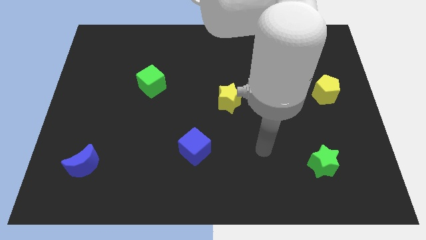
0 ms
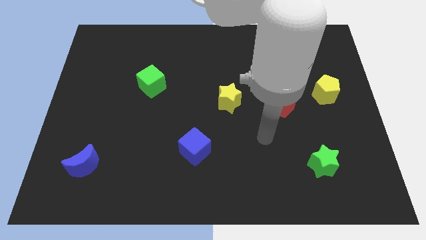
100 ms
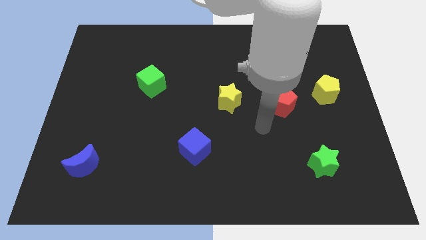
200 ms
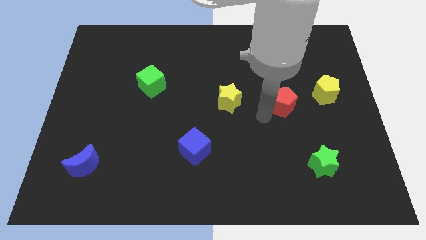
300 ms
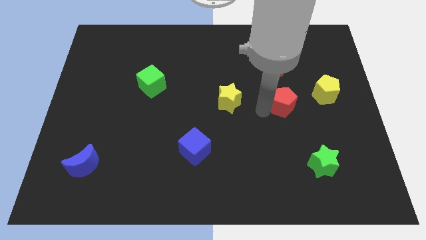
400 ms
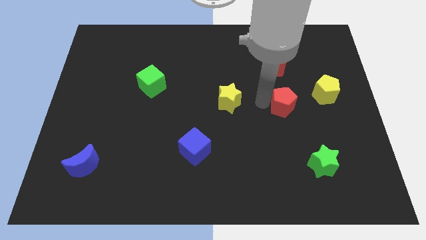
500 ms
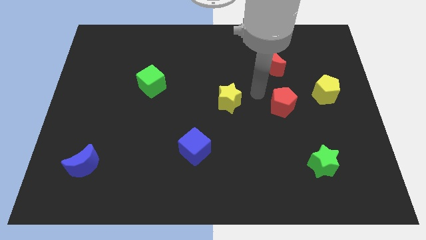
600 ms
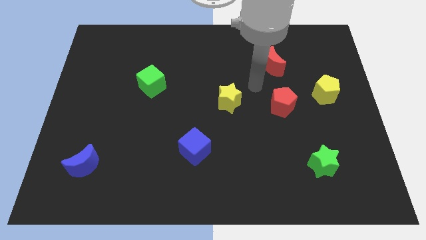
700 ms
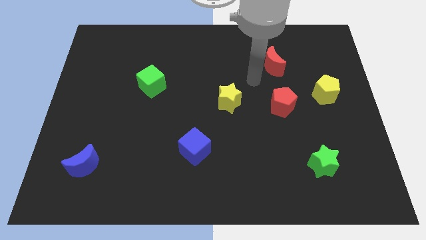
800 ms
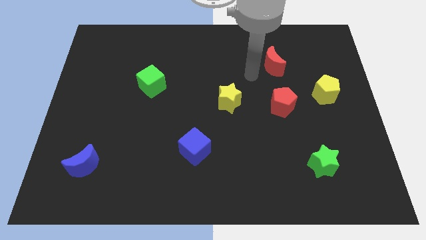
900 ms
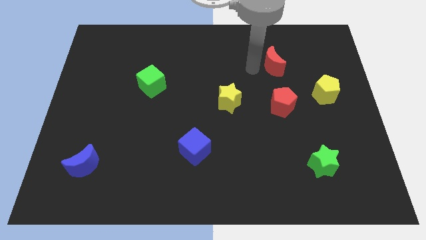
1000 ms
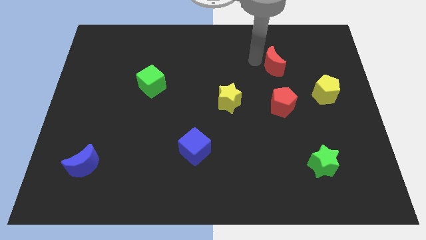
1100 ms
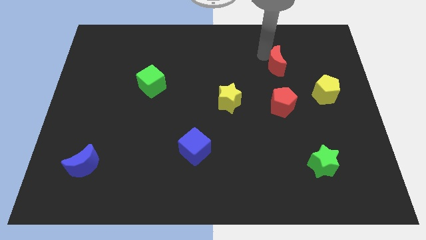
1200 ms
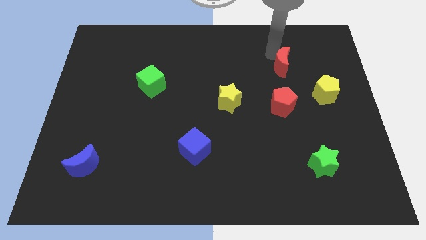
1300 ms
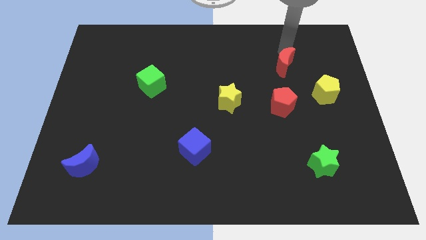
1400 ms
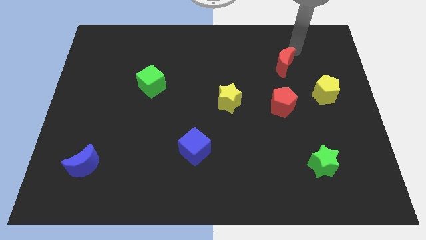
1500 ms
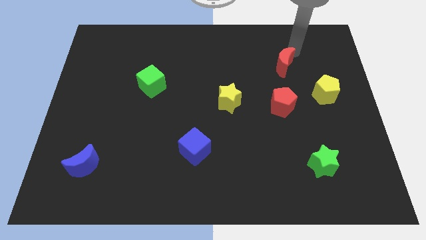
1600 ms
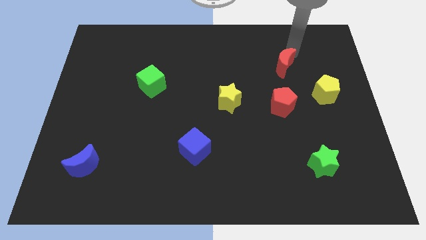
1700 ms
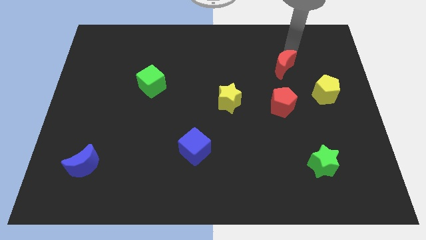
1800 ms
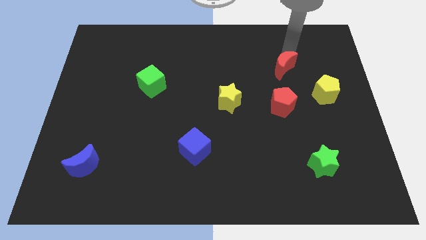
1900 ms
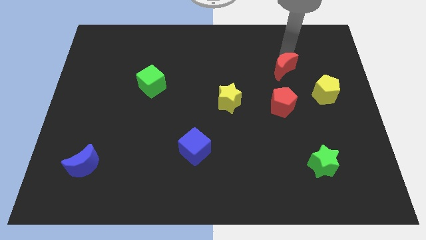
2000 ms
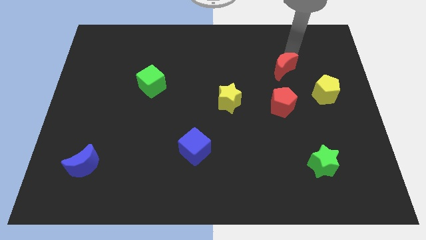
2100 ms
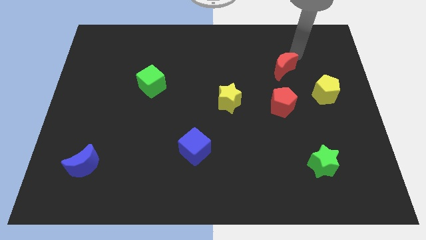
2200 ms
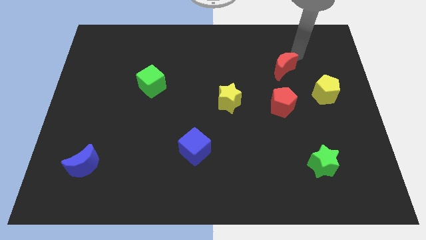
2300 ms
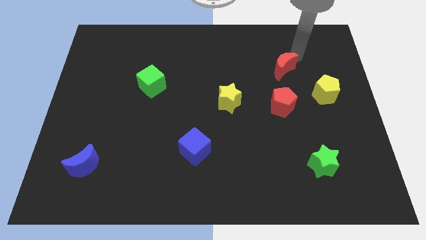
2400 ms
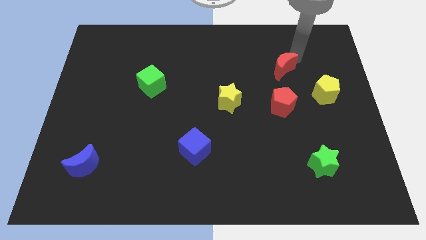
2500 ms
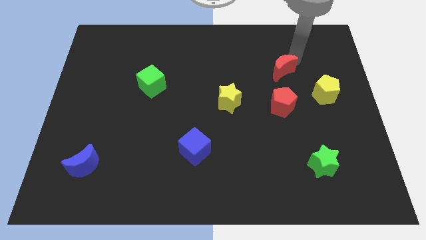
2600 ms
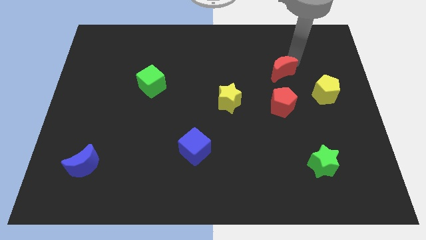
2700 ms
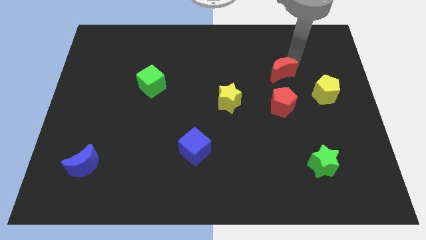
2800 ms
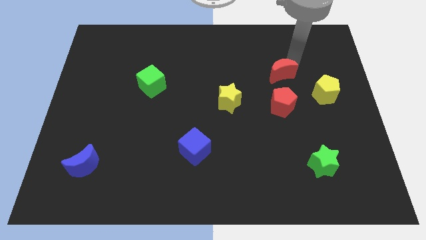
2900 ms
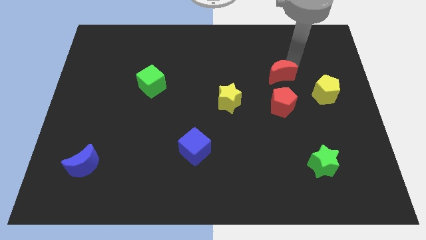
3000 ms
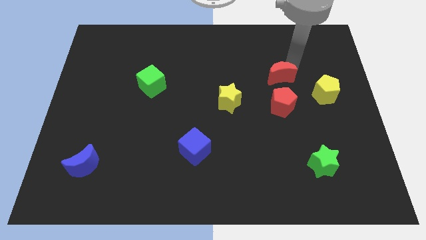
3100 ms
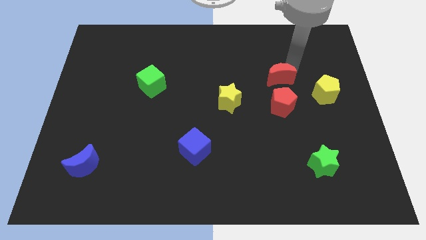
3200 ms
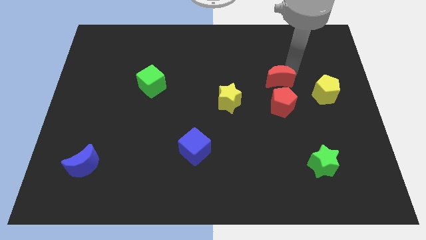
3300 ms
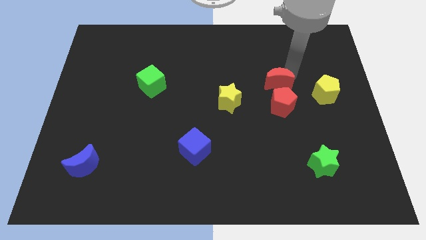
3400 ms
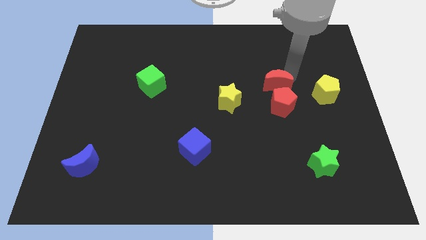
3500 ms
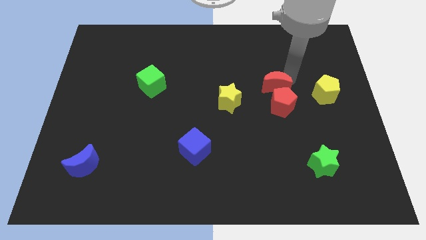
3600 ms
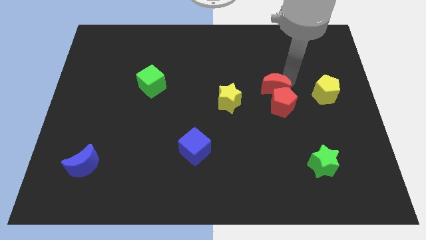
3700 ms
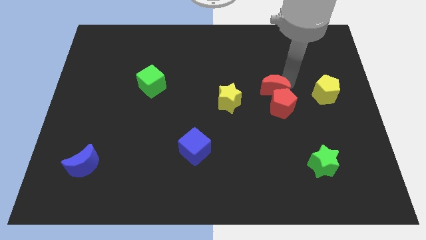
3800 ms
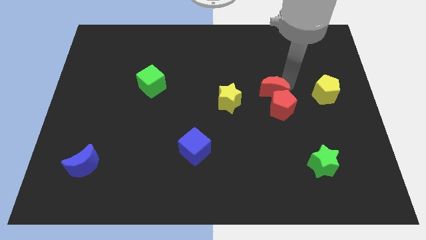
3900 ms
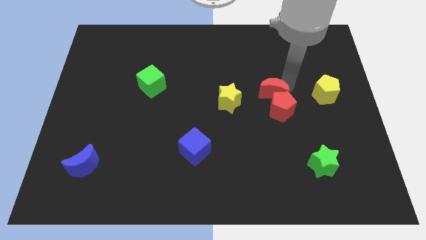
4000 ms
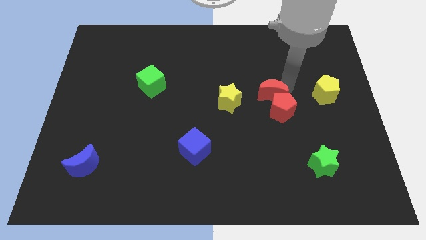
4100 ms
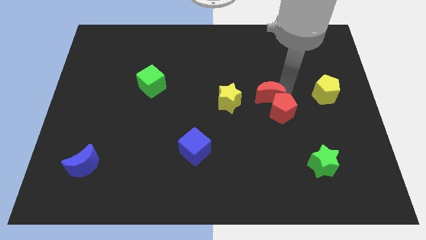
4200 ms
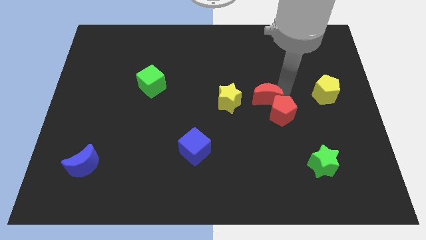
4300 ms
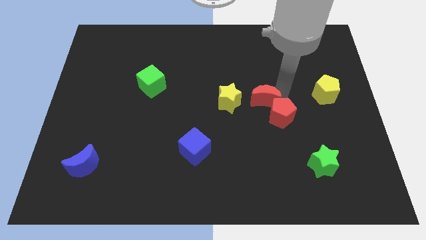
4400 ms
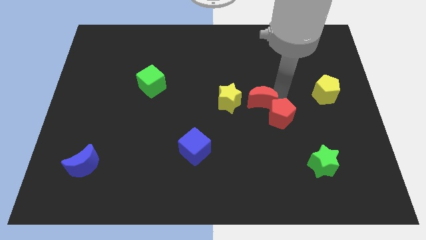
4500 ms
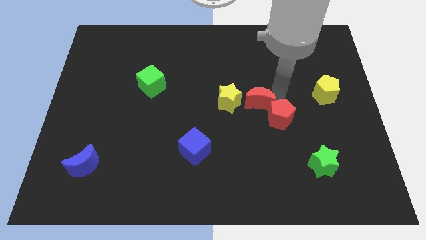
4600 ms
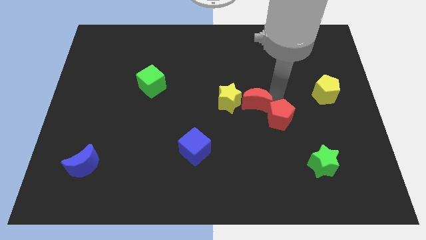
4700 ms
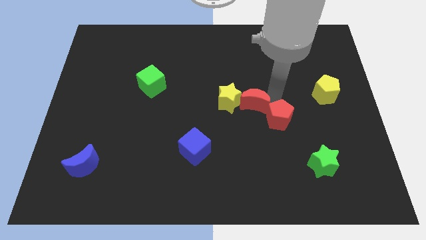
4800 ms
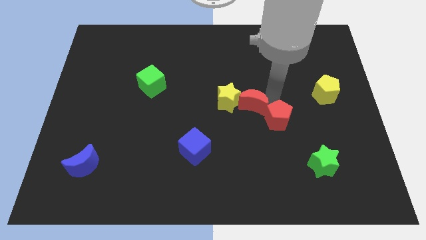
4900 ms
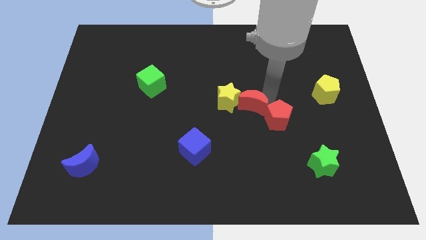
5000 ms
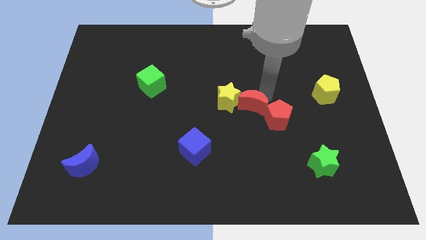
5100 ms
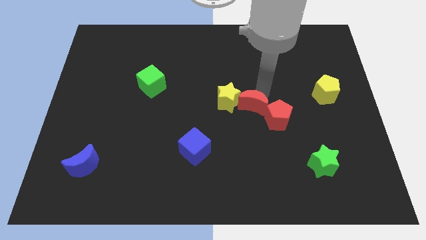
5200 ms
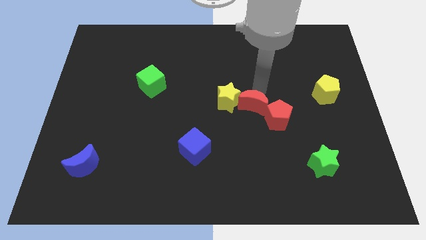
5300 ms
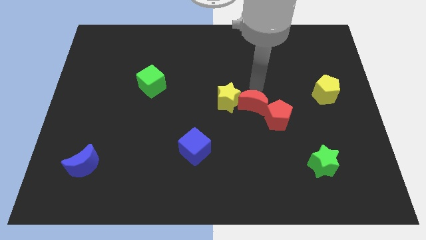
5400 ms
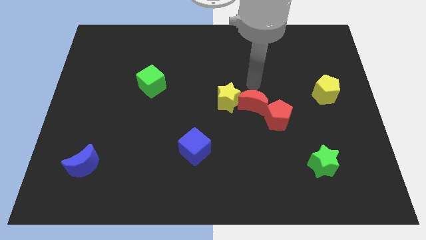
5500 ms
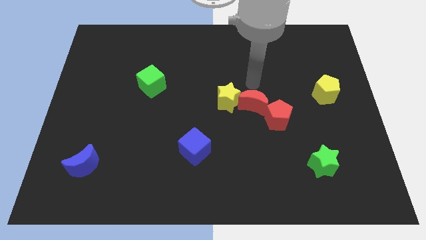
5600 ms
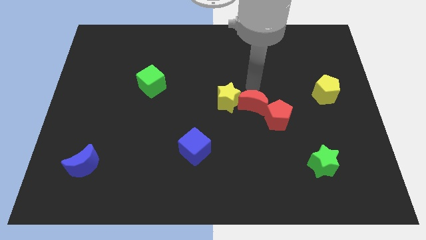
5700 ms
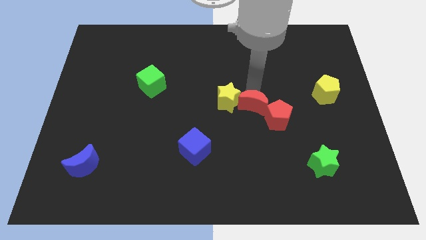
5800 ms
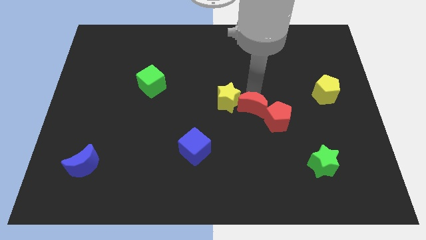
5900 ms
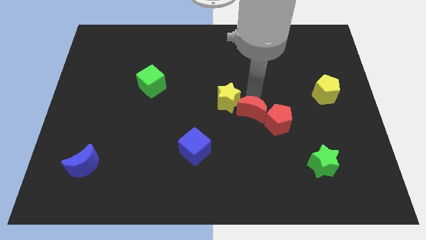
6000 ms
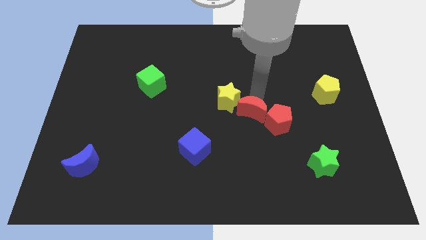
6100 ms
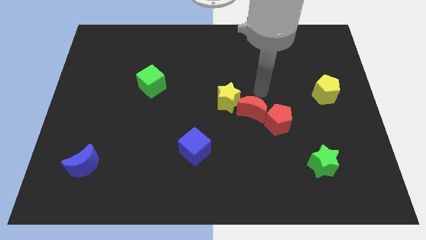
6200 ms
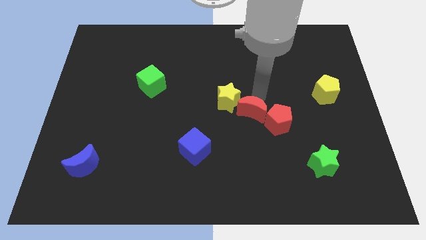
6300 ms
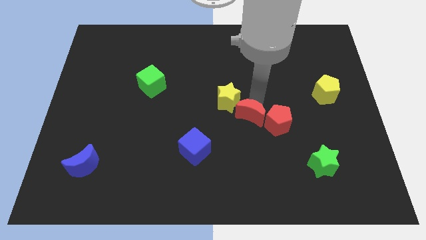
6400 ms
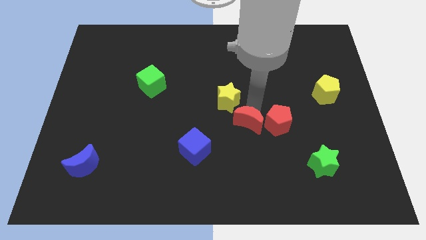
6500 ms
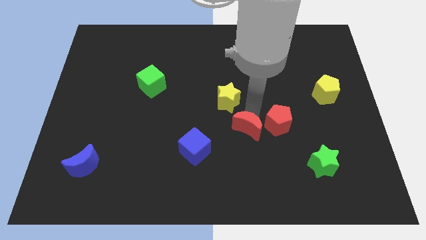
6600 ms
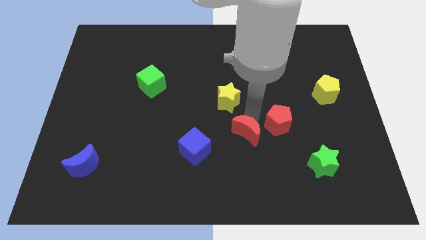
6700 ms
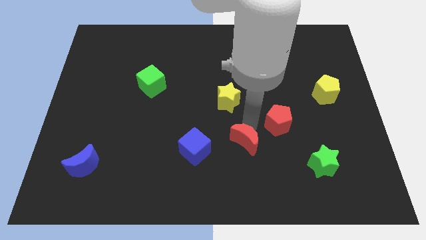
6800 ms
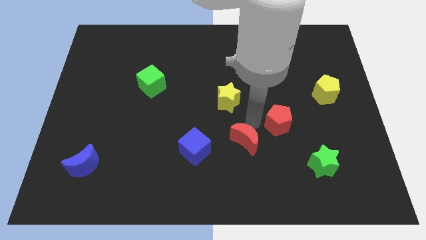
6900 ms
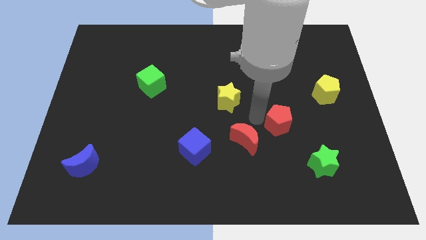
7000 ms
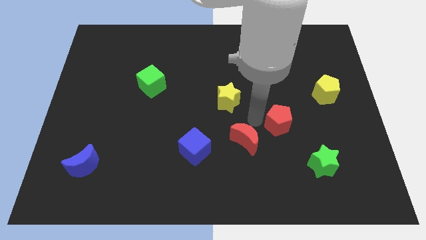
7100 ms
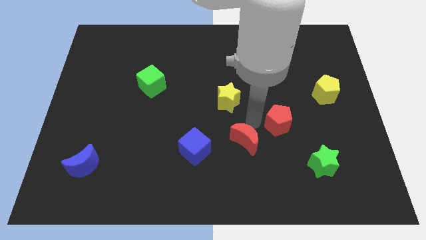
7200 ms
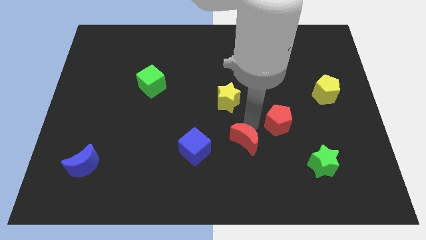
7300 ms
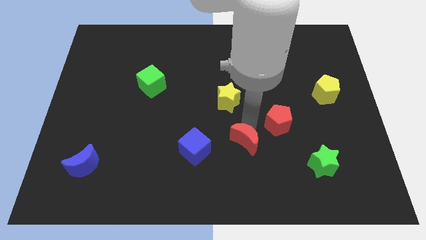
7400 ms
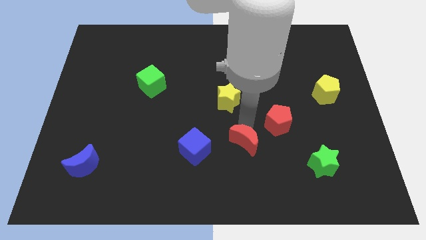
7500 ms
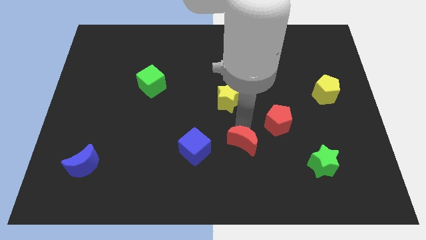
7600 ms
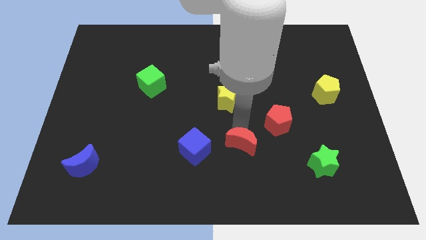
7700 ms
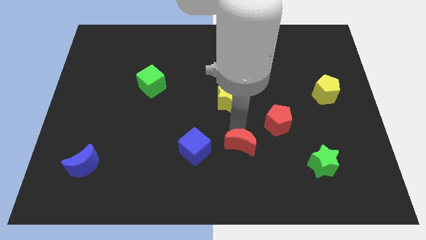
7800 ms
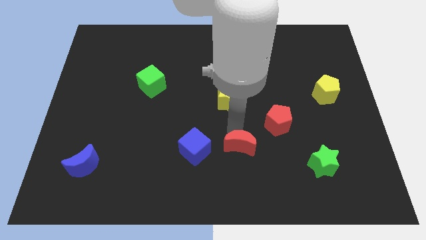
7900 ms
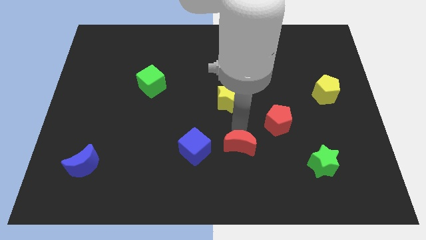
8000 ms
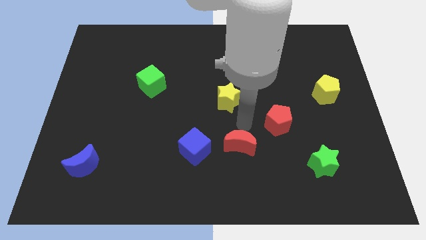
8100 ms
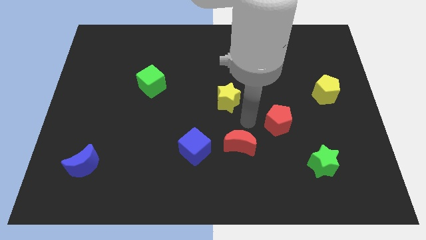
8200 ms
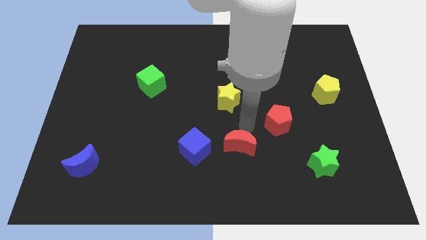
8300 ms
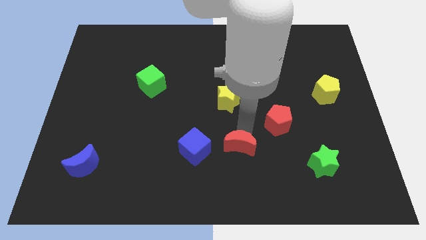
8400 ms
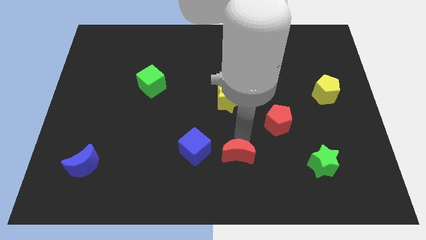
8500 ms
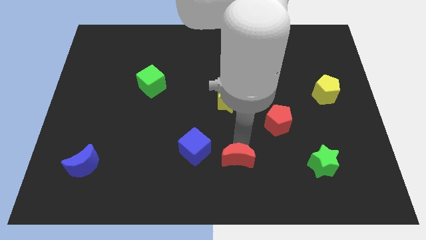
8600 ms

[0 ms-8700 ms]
push the red moon to the bottom
